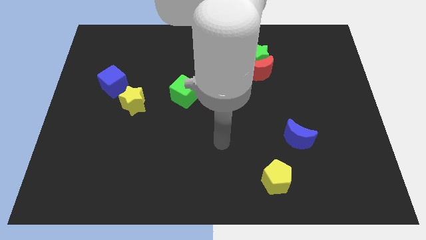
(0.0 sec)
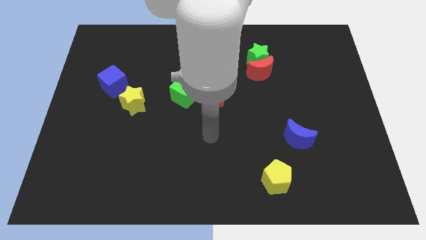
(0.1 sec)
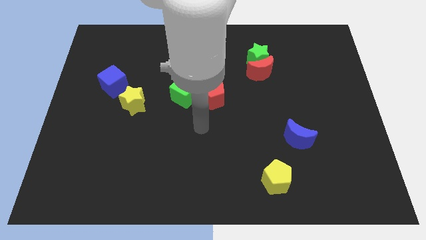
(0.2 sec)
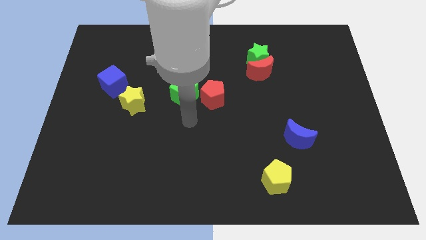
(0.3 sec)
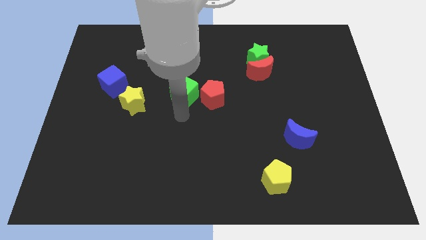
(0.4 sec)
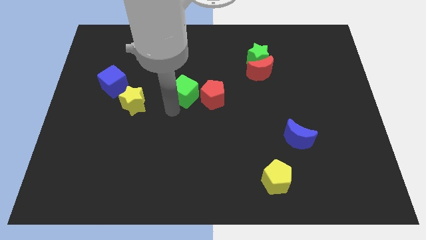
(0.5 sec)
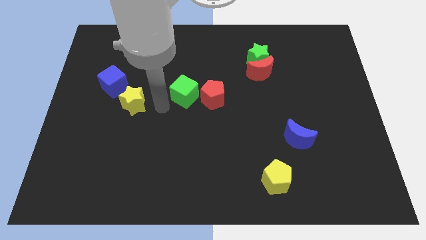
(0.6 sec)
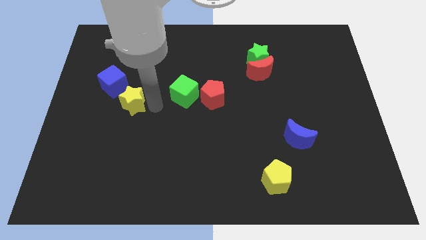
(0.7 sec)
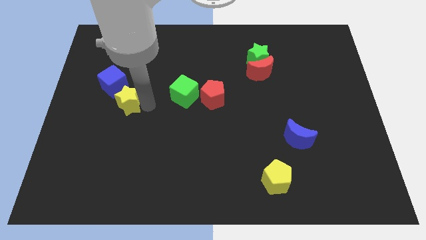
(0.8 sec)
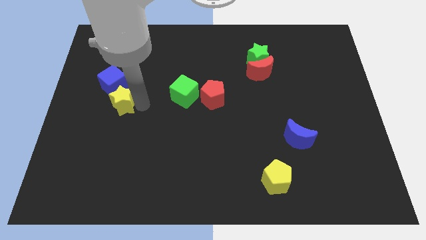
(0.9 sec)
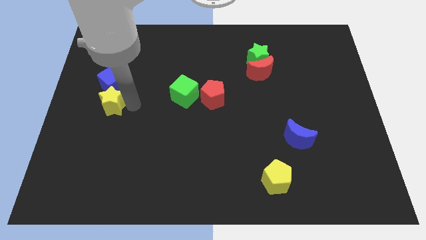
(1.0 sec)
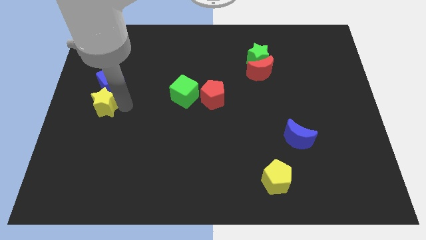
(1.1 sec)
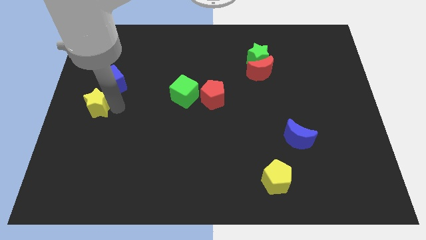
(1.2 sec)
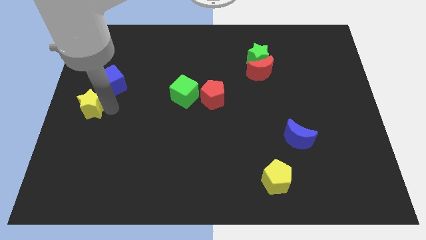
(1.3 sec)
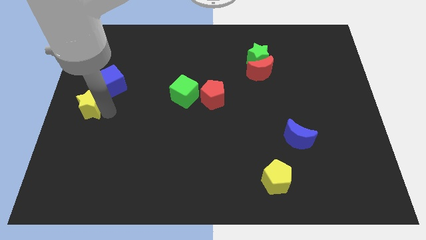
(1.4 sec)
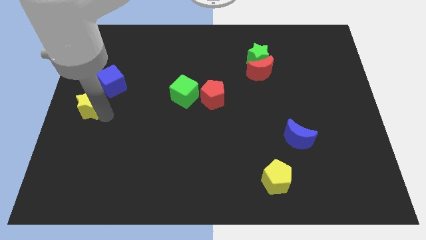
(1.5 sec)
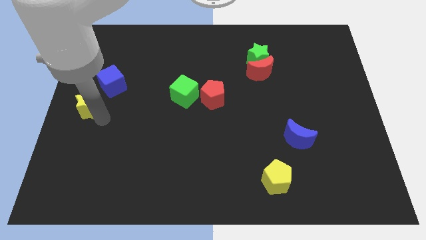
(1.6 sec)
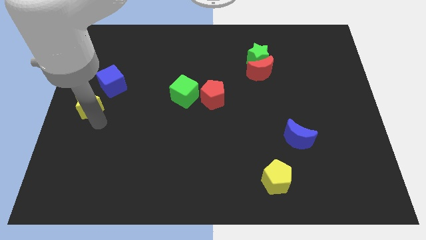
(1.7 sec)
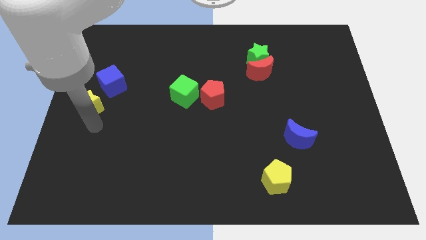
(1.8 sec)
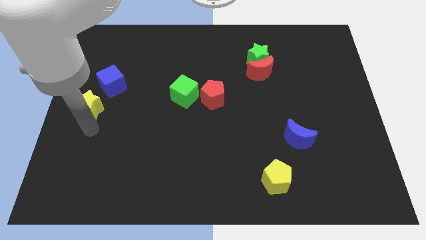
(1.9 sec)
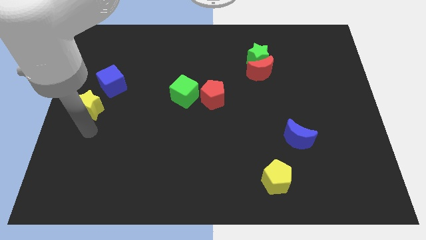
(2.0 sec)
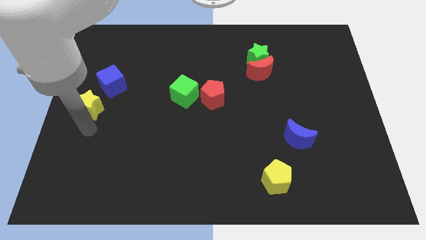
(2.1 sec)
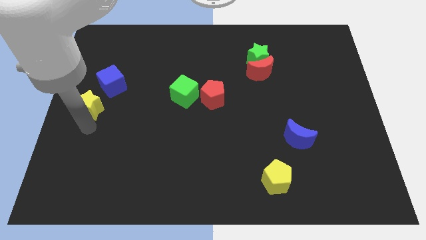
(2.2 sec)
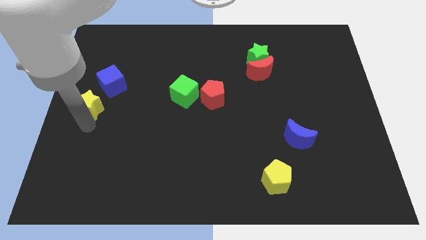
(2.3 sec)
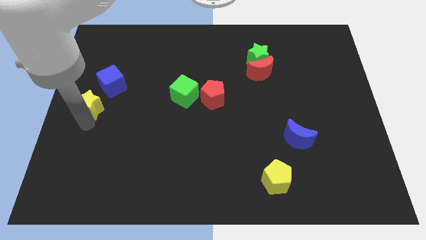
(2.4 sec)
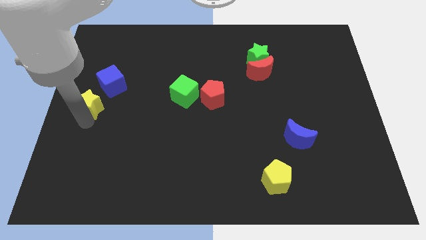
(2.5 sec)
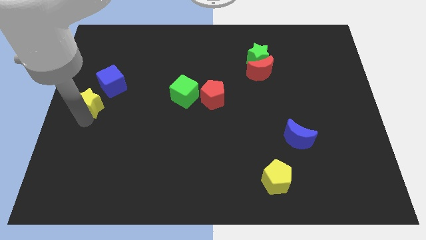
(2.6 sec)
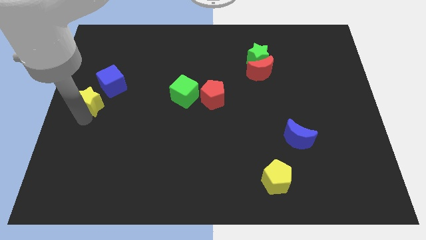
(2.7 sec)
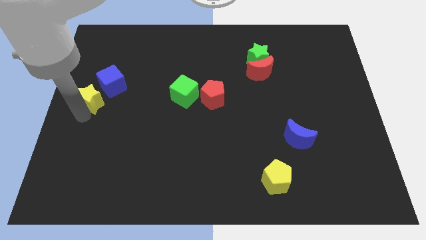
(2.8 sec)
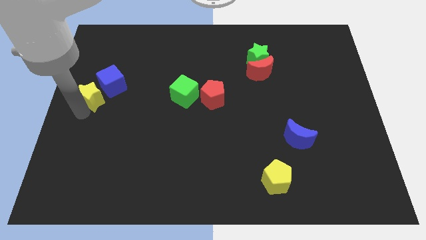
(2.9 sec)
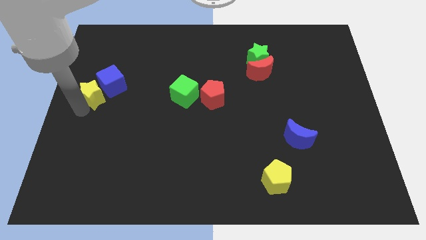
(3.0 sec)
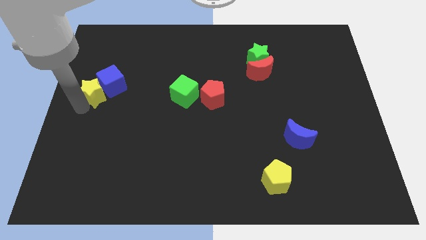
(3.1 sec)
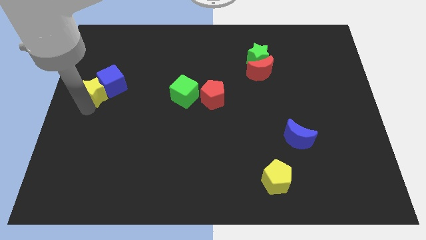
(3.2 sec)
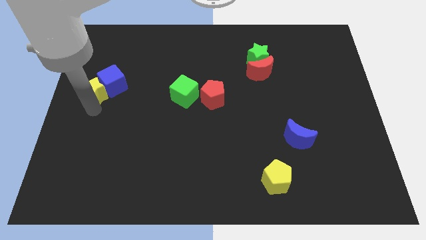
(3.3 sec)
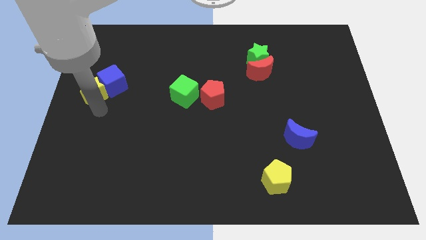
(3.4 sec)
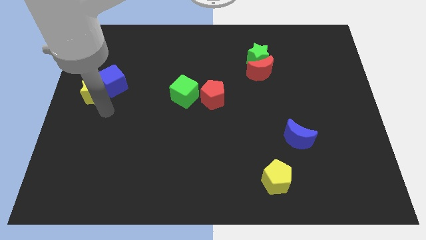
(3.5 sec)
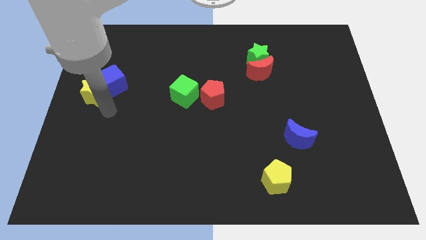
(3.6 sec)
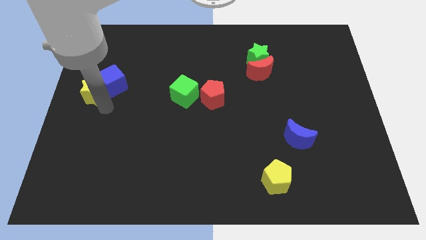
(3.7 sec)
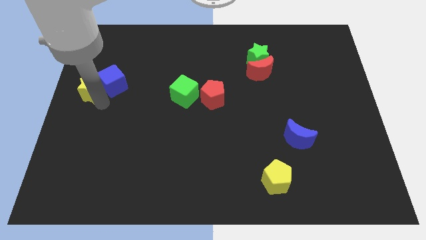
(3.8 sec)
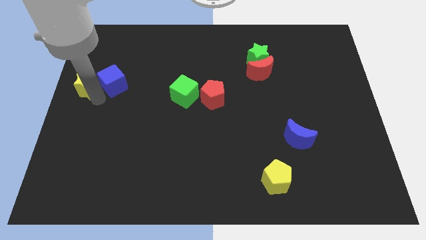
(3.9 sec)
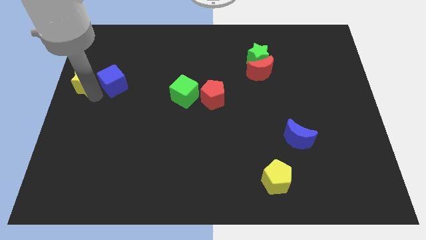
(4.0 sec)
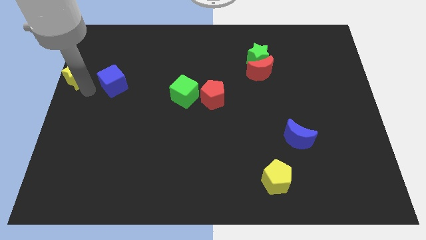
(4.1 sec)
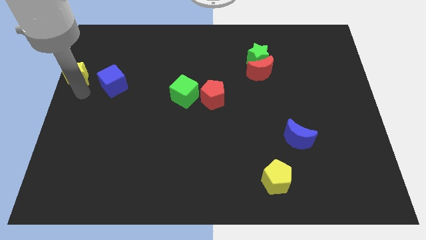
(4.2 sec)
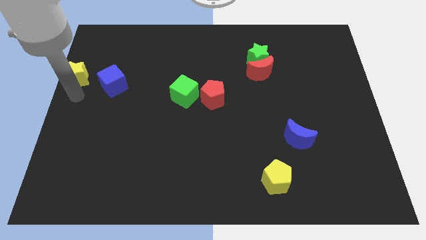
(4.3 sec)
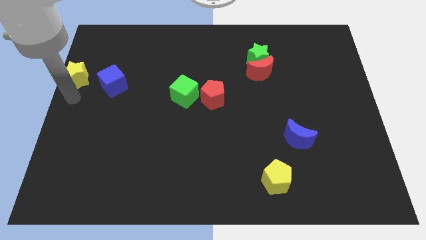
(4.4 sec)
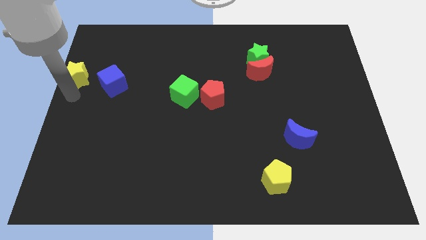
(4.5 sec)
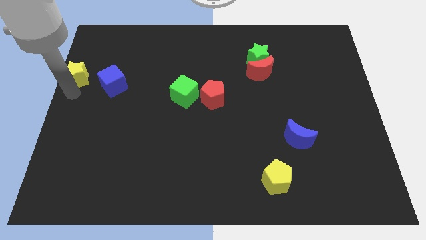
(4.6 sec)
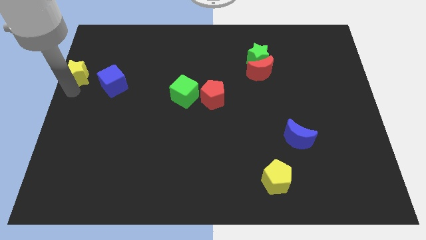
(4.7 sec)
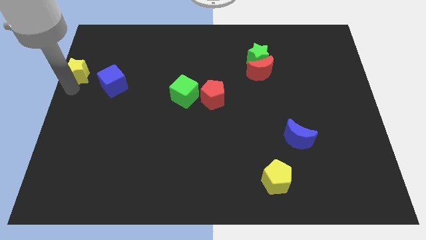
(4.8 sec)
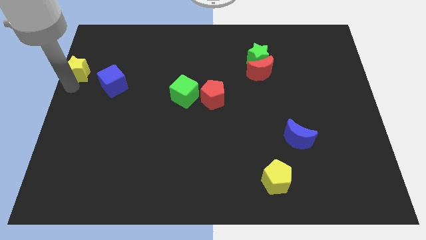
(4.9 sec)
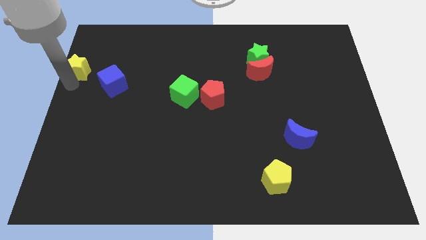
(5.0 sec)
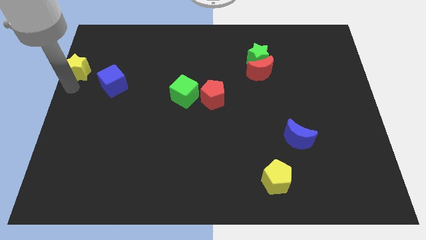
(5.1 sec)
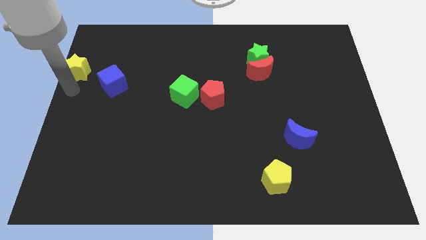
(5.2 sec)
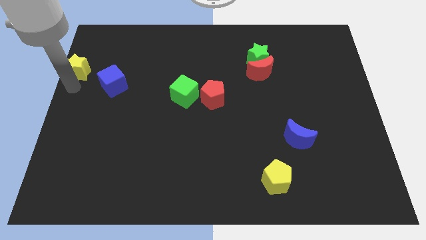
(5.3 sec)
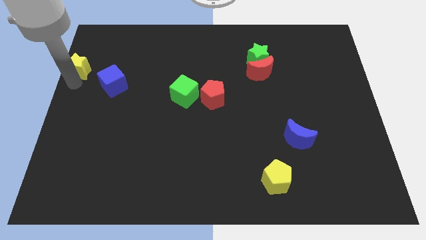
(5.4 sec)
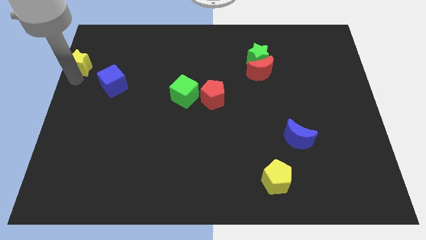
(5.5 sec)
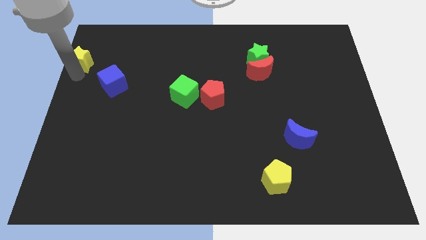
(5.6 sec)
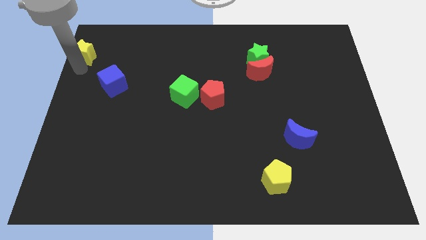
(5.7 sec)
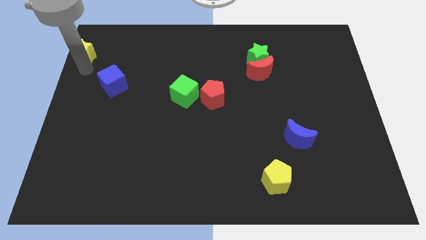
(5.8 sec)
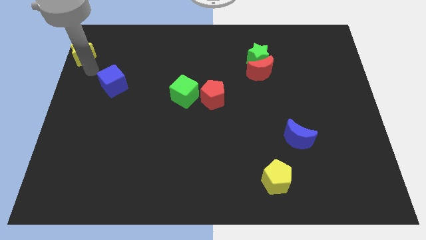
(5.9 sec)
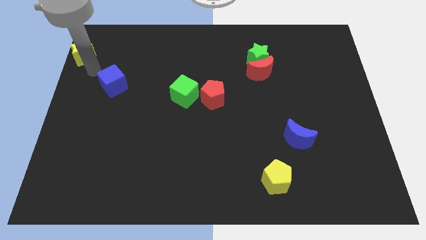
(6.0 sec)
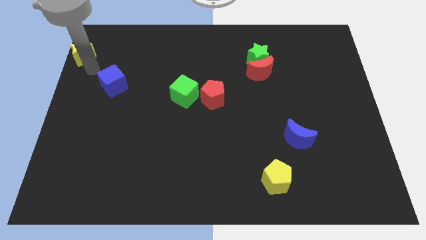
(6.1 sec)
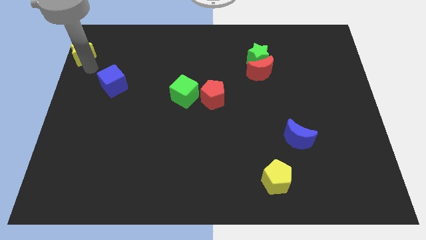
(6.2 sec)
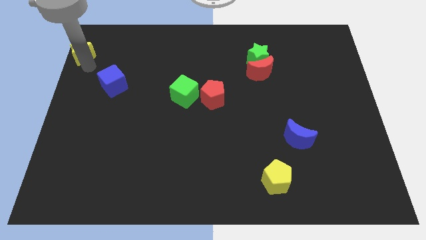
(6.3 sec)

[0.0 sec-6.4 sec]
push the yellow star to the top left corner
